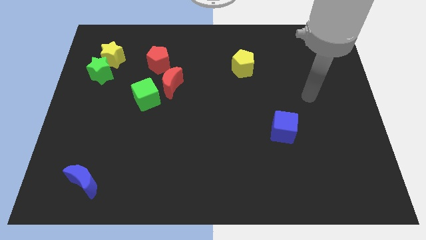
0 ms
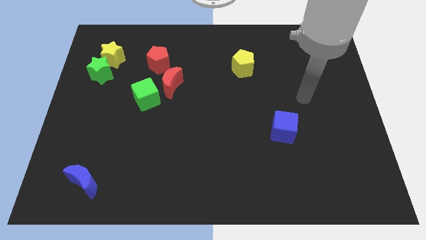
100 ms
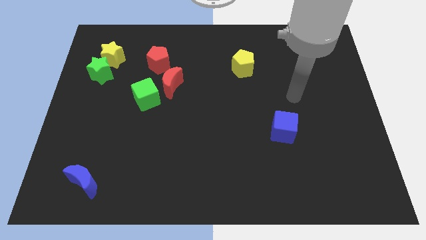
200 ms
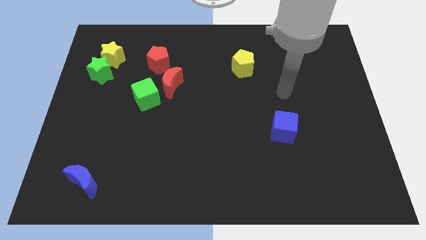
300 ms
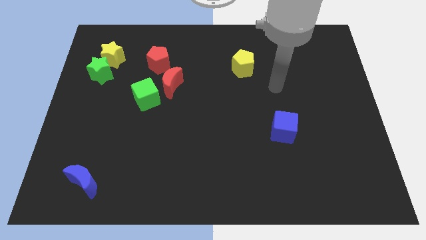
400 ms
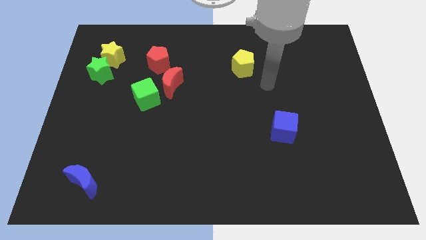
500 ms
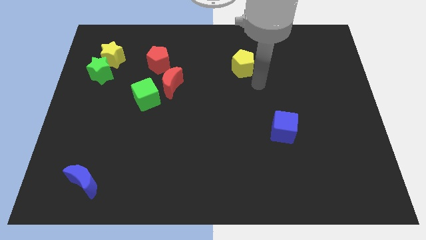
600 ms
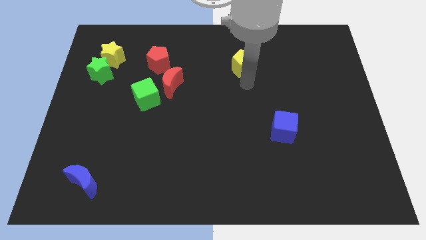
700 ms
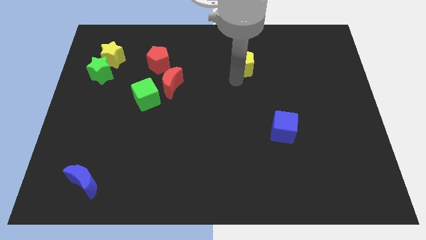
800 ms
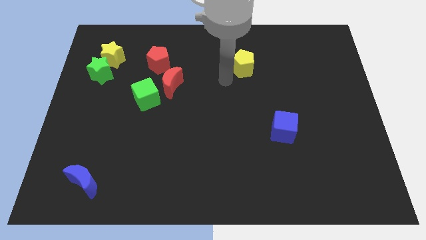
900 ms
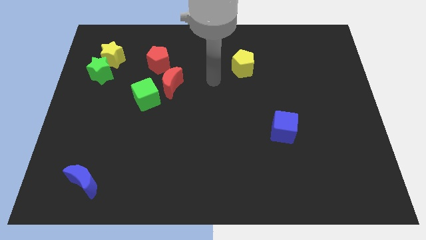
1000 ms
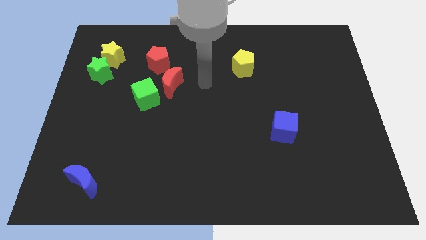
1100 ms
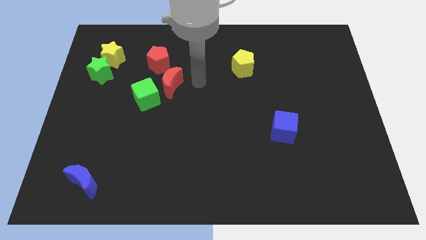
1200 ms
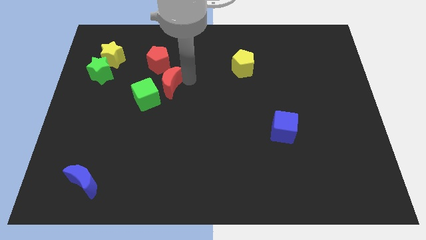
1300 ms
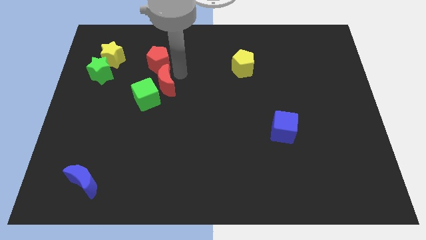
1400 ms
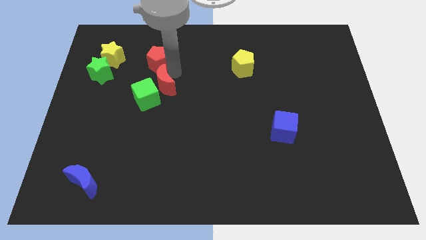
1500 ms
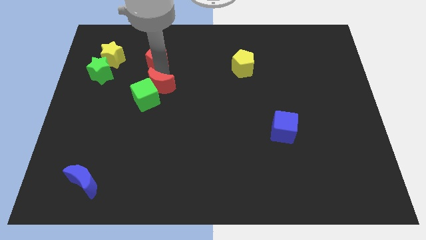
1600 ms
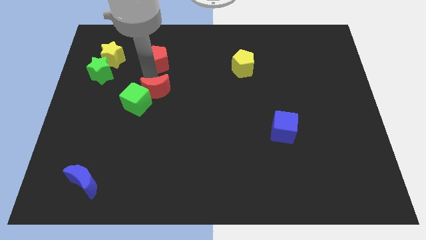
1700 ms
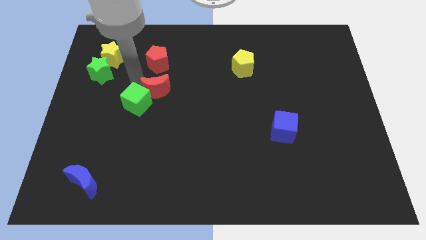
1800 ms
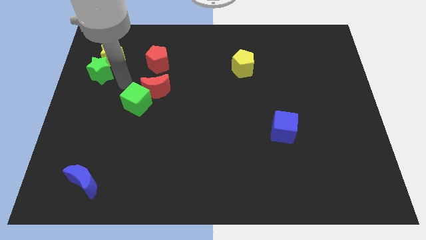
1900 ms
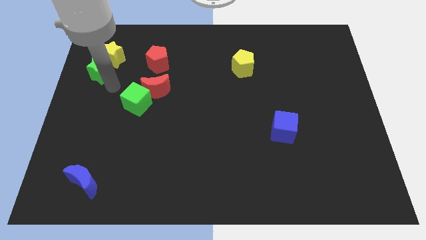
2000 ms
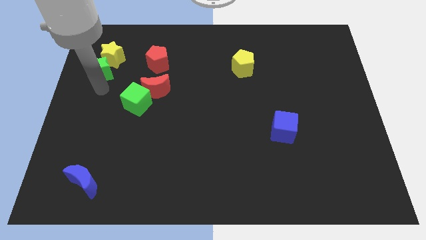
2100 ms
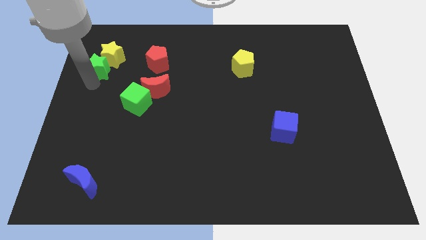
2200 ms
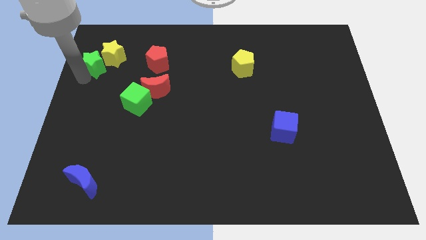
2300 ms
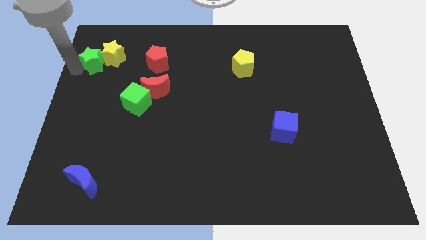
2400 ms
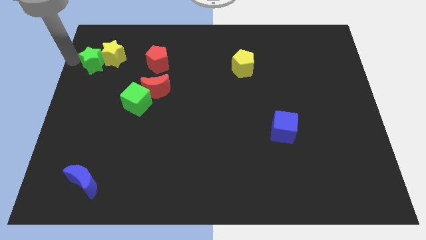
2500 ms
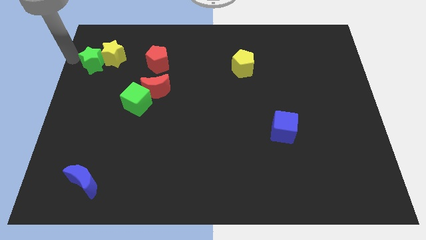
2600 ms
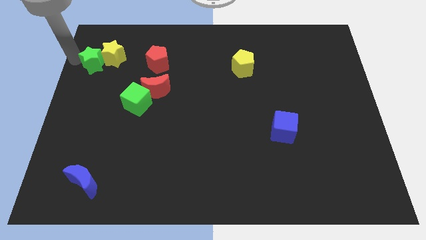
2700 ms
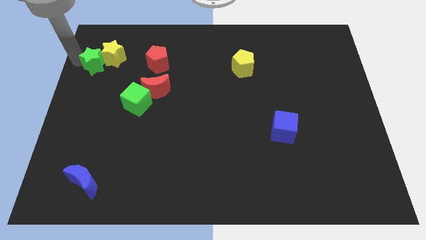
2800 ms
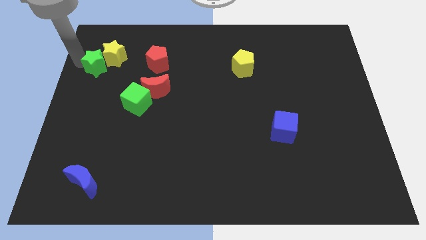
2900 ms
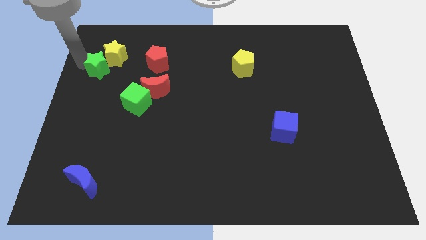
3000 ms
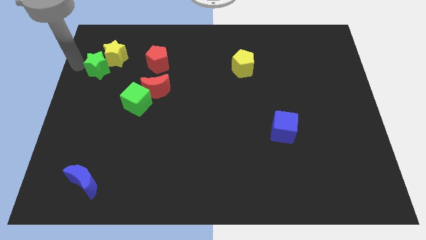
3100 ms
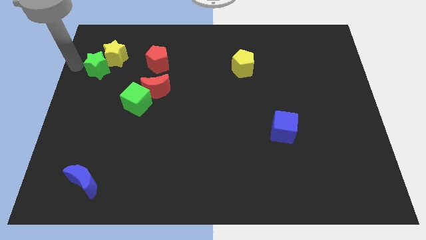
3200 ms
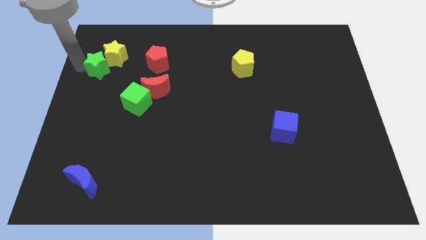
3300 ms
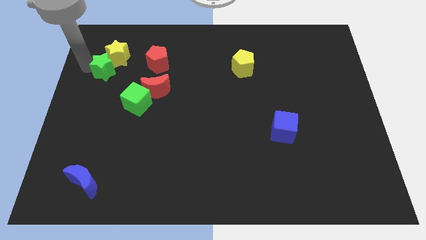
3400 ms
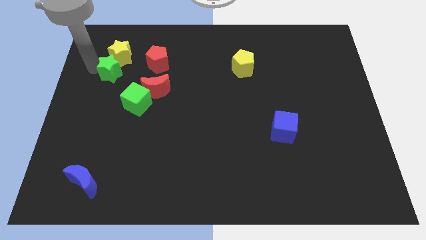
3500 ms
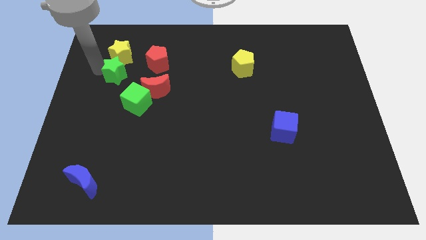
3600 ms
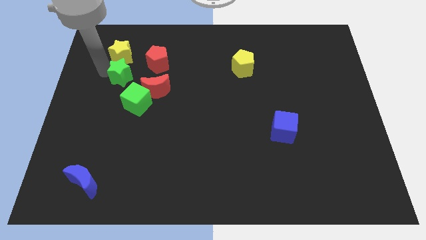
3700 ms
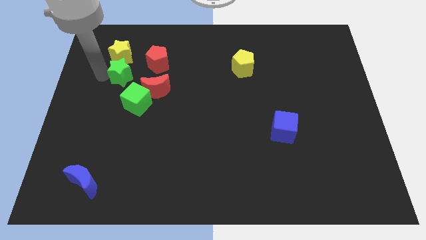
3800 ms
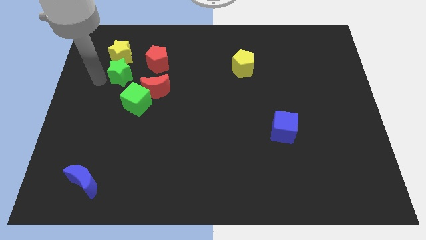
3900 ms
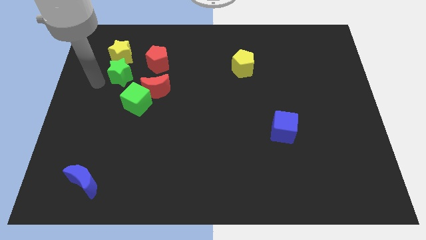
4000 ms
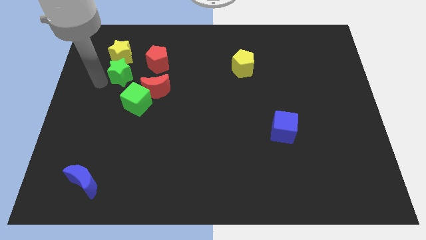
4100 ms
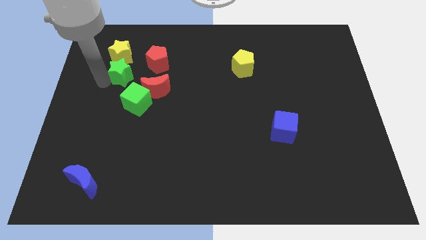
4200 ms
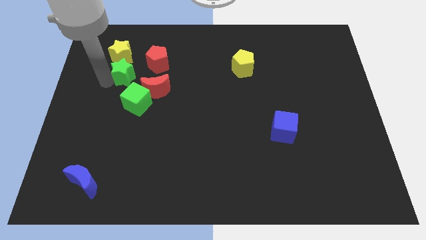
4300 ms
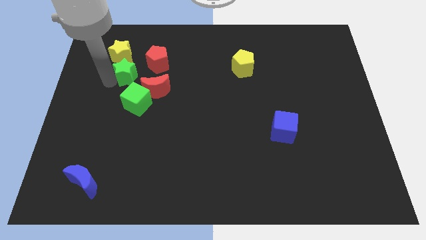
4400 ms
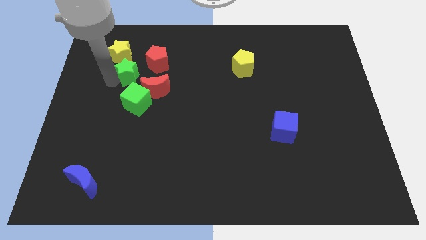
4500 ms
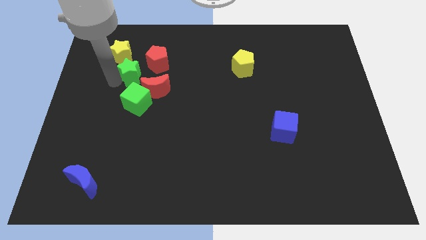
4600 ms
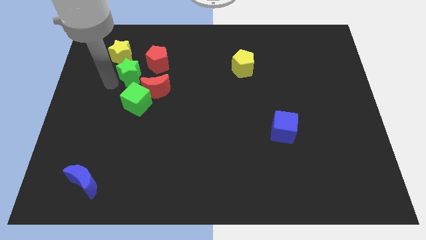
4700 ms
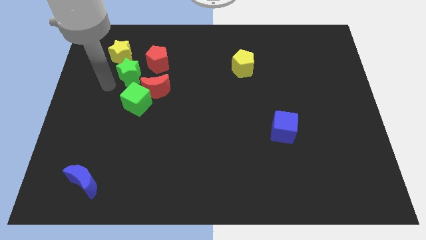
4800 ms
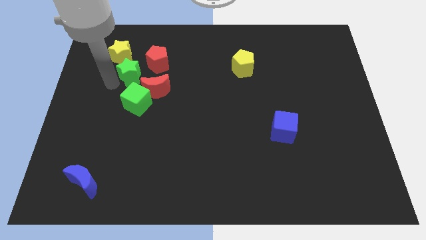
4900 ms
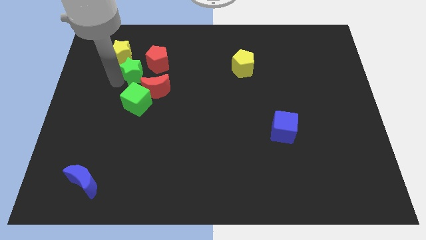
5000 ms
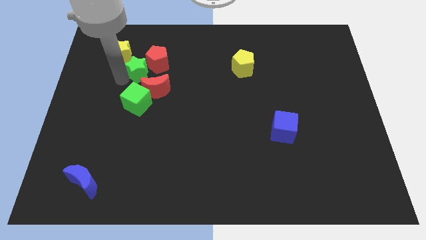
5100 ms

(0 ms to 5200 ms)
slide the green star to the red pentagon

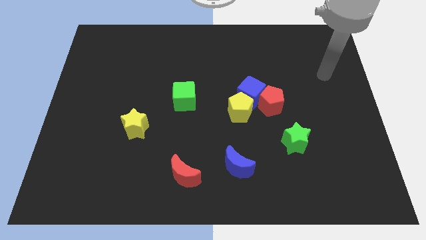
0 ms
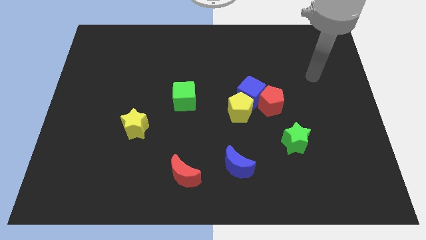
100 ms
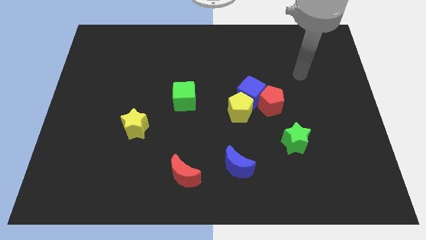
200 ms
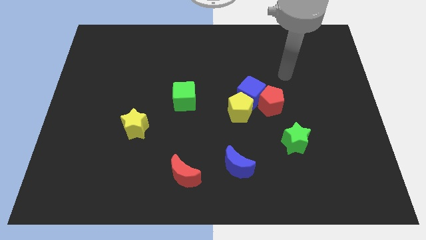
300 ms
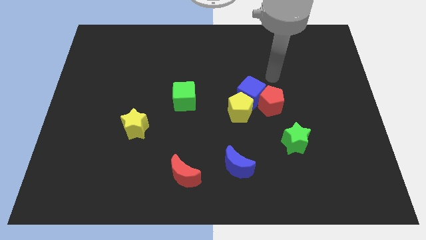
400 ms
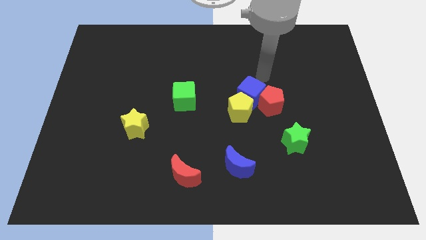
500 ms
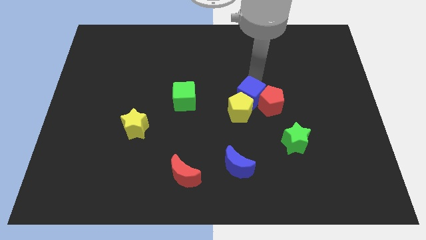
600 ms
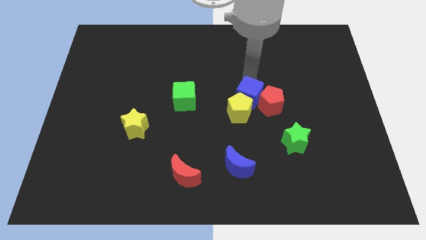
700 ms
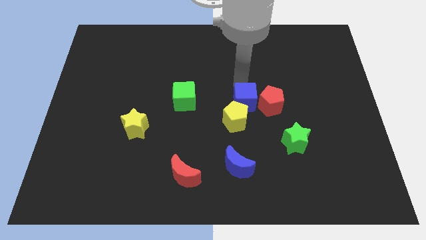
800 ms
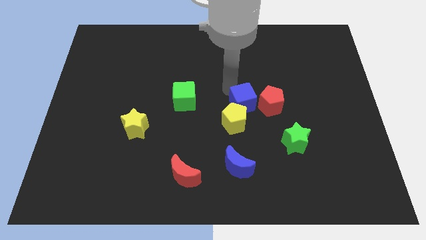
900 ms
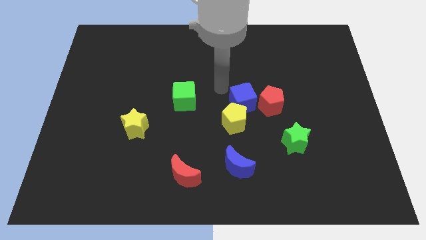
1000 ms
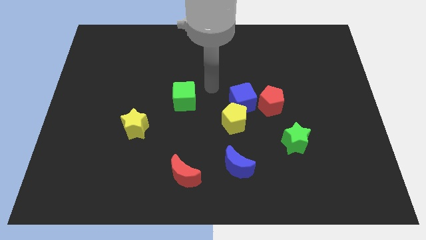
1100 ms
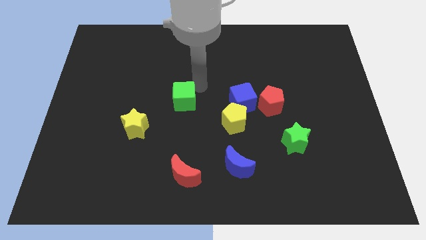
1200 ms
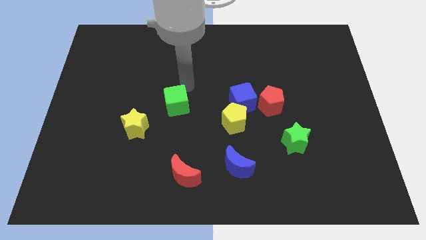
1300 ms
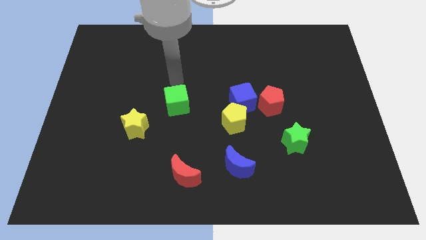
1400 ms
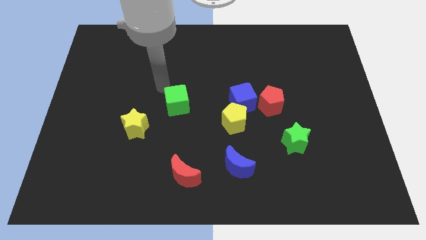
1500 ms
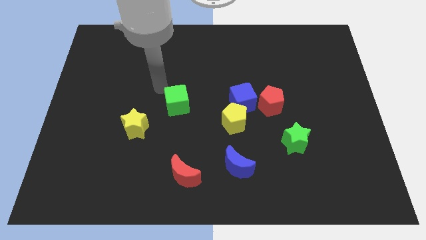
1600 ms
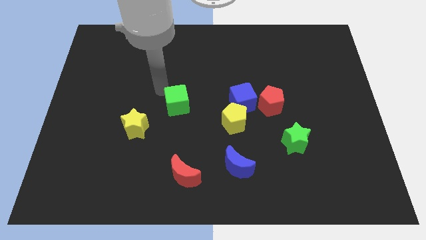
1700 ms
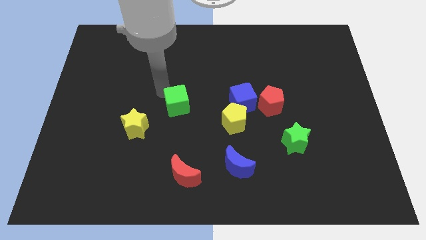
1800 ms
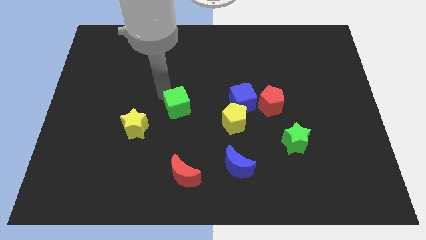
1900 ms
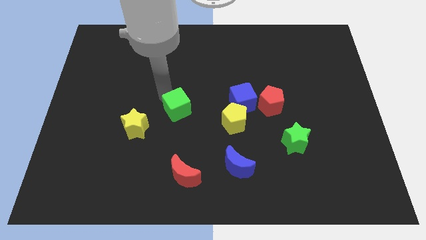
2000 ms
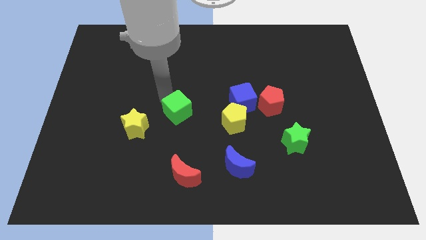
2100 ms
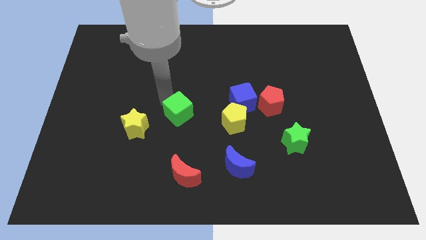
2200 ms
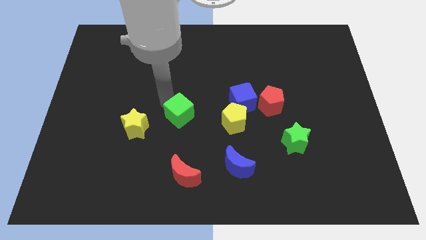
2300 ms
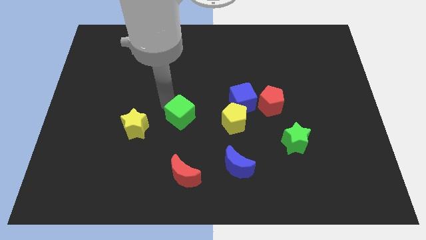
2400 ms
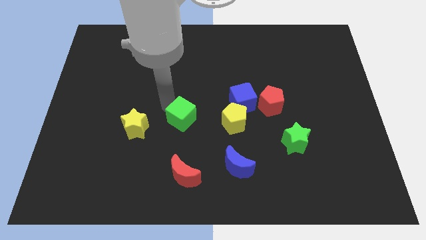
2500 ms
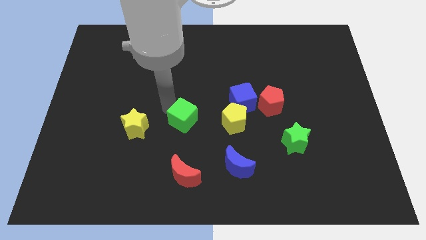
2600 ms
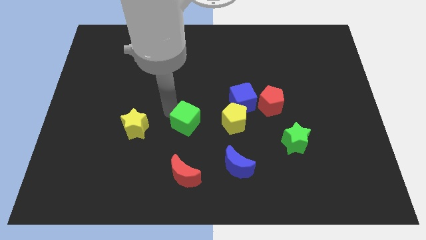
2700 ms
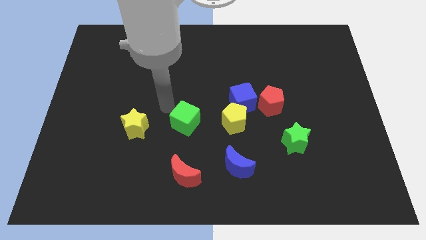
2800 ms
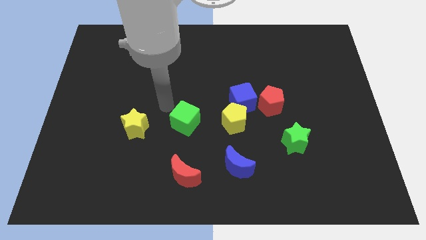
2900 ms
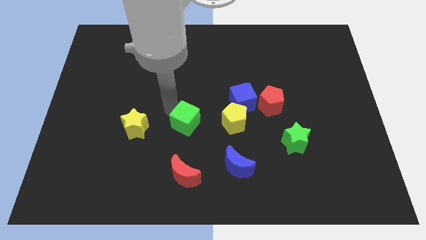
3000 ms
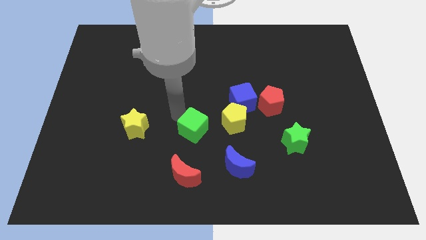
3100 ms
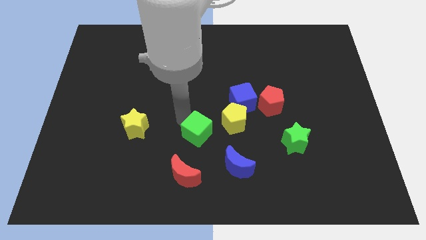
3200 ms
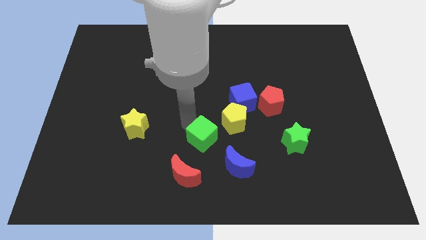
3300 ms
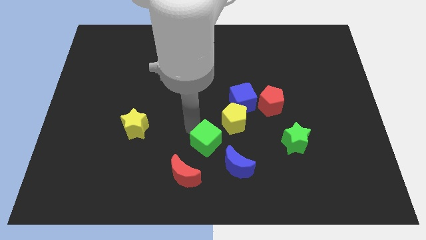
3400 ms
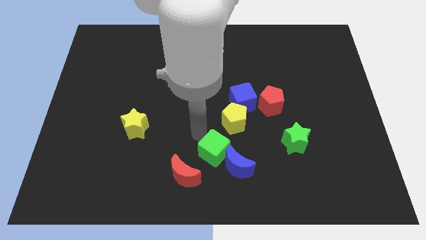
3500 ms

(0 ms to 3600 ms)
push the green cube close to the blue moon
